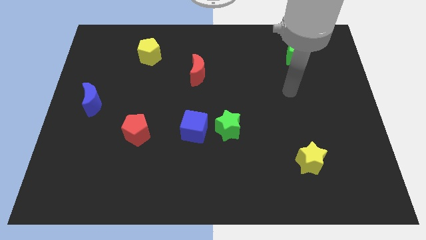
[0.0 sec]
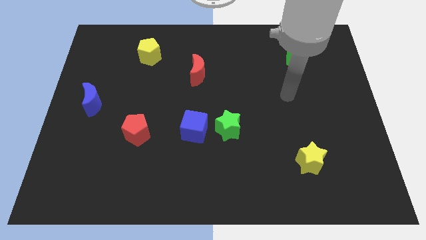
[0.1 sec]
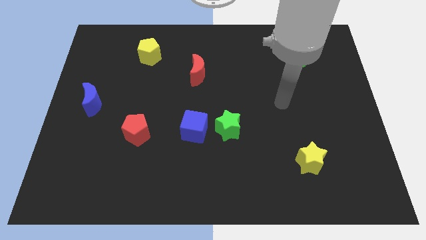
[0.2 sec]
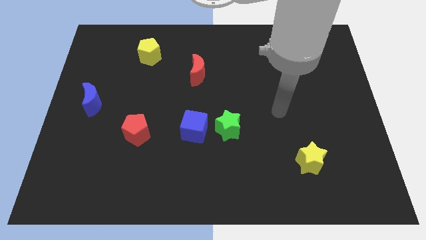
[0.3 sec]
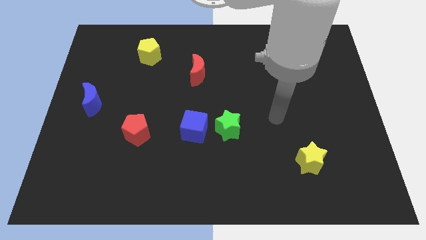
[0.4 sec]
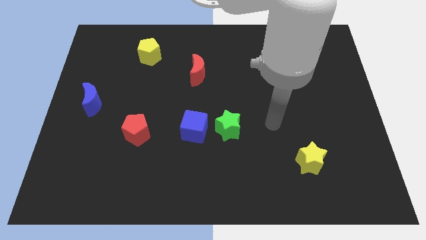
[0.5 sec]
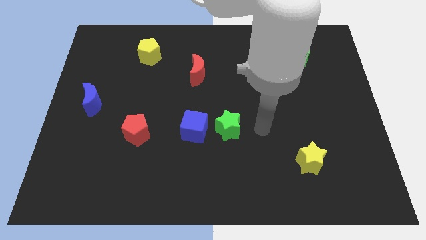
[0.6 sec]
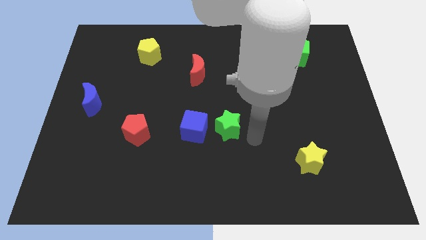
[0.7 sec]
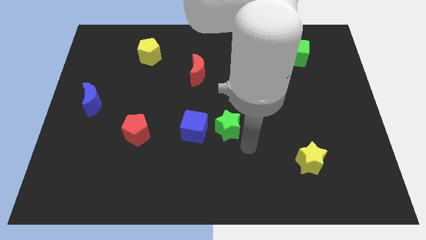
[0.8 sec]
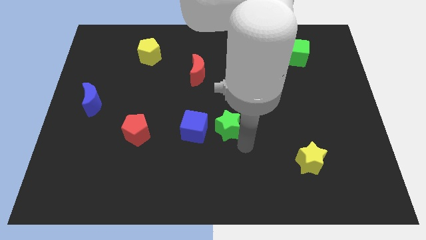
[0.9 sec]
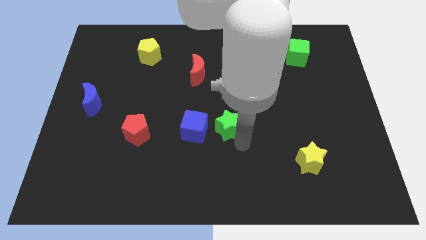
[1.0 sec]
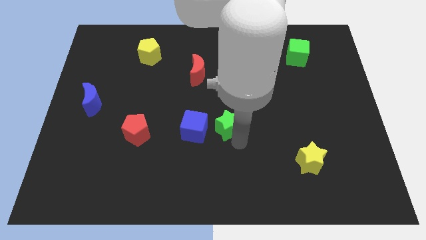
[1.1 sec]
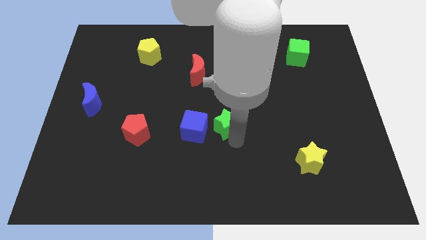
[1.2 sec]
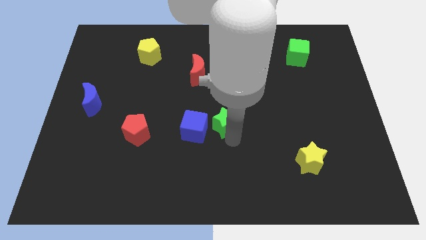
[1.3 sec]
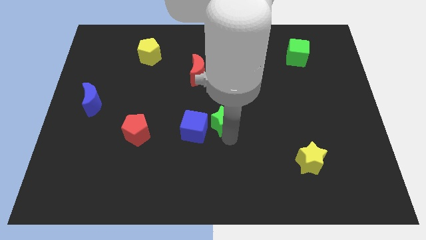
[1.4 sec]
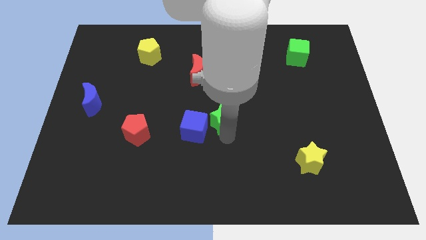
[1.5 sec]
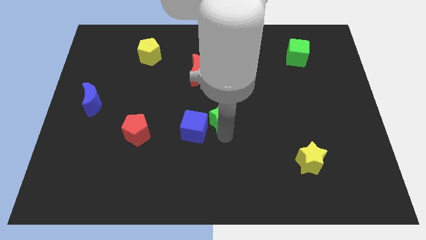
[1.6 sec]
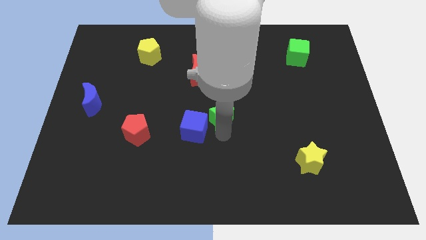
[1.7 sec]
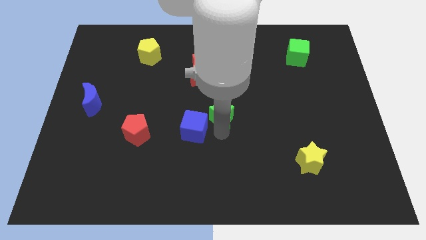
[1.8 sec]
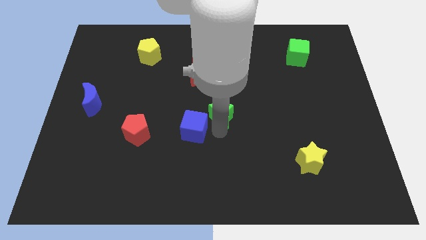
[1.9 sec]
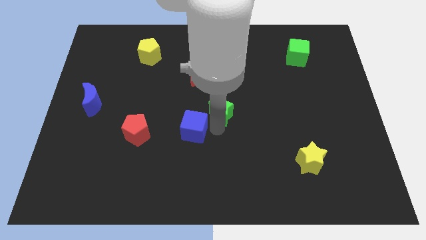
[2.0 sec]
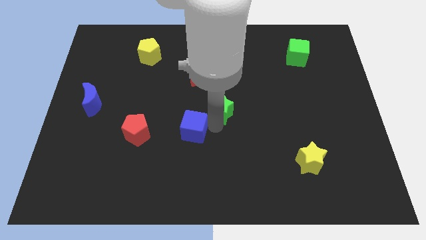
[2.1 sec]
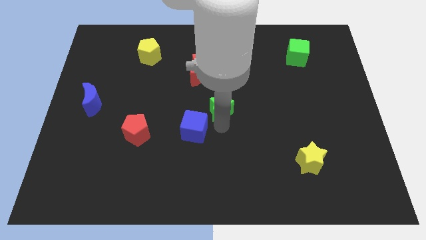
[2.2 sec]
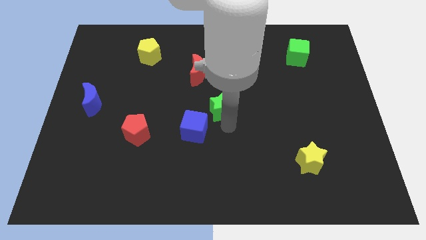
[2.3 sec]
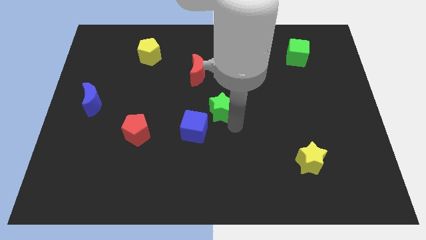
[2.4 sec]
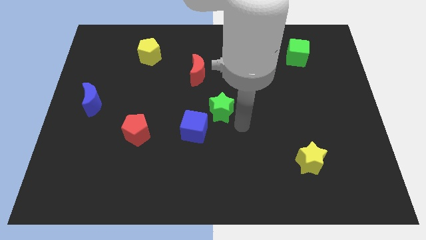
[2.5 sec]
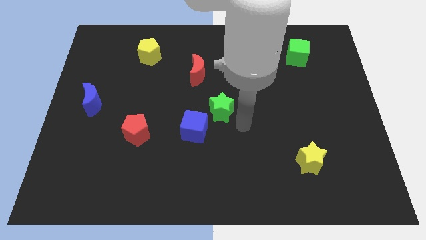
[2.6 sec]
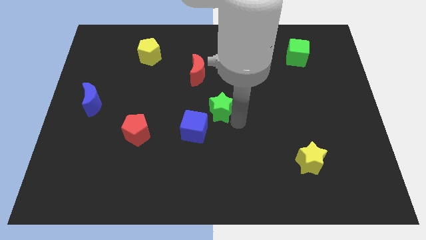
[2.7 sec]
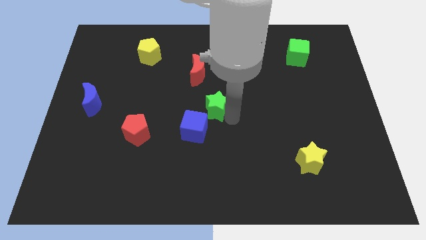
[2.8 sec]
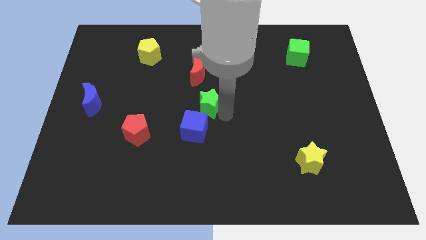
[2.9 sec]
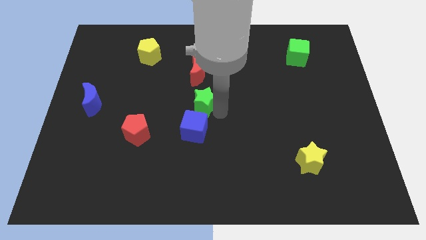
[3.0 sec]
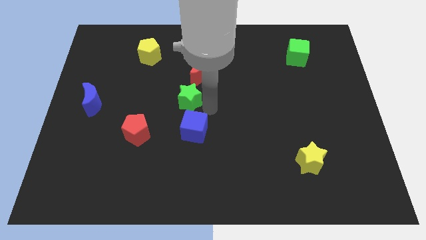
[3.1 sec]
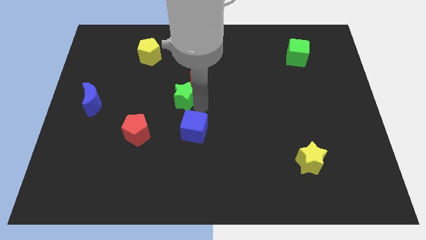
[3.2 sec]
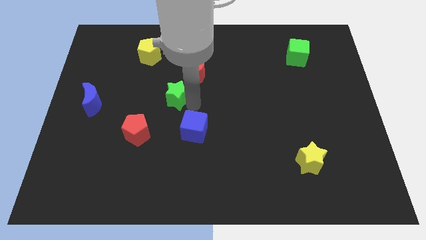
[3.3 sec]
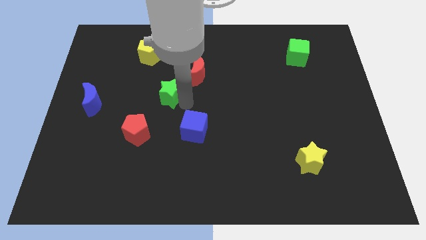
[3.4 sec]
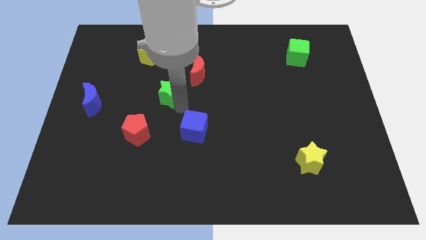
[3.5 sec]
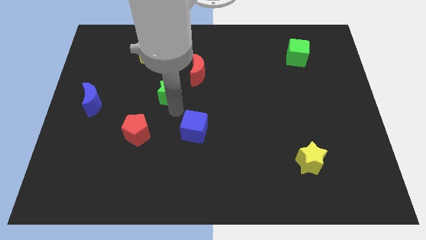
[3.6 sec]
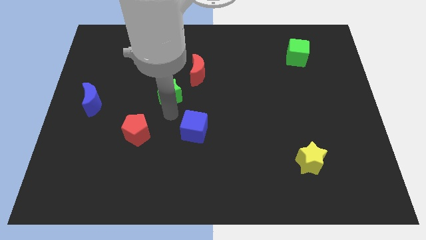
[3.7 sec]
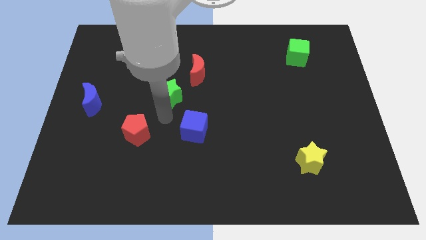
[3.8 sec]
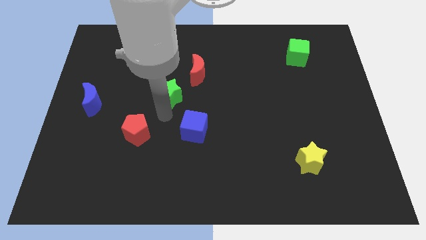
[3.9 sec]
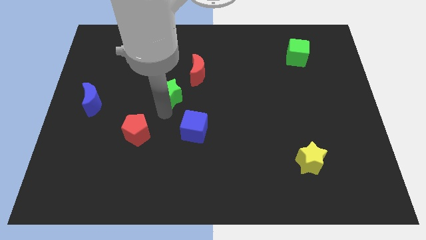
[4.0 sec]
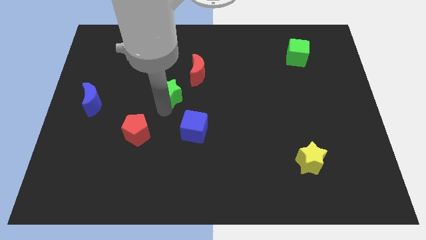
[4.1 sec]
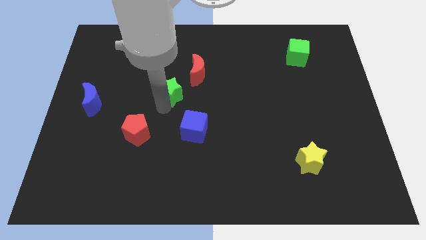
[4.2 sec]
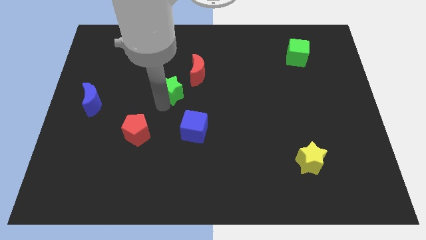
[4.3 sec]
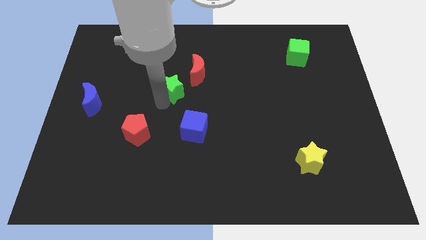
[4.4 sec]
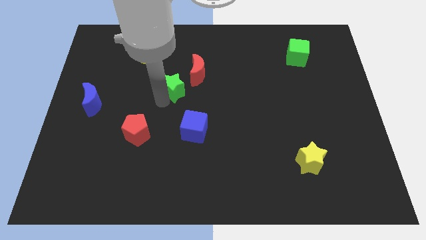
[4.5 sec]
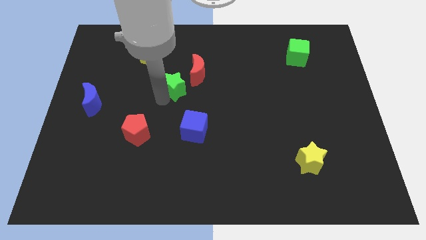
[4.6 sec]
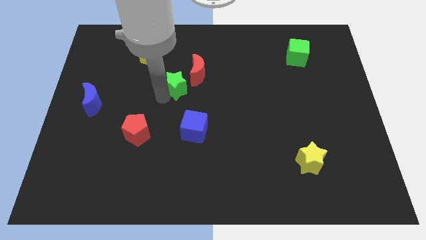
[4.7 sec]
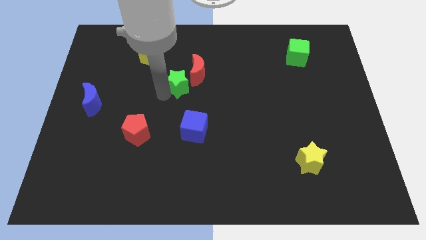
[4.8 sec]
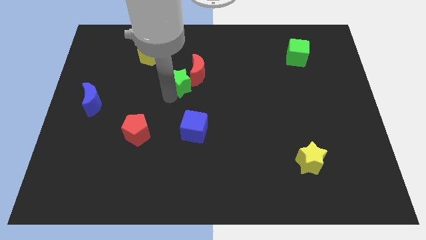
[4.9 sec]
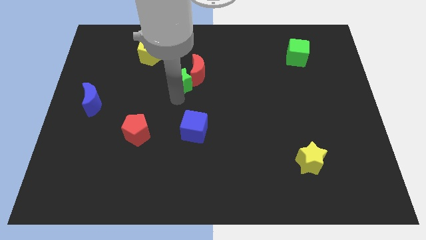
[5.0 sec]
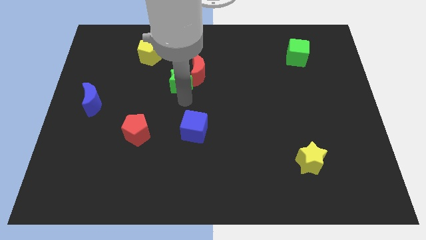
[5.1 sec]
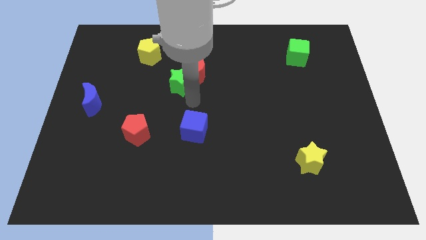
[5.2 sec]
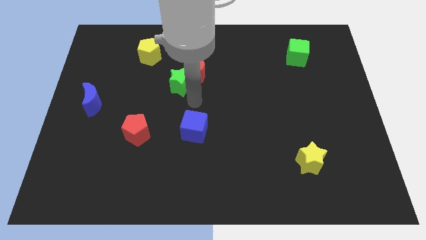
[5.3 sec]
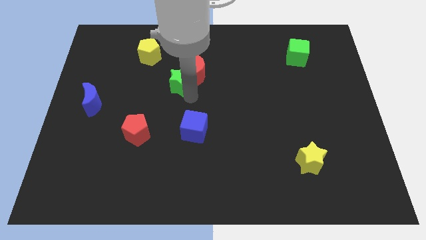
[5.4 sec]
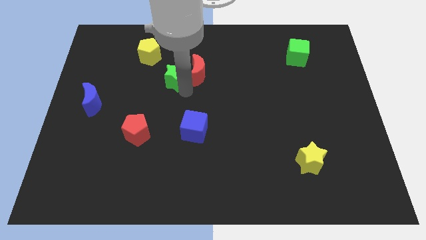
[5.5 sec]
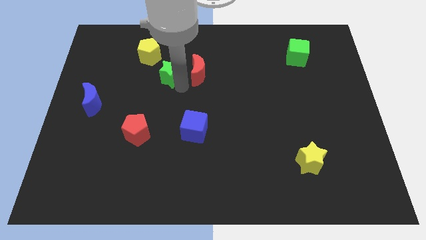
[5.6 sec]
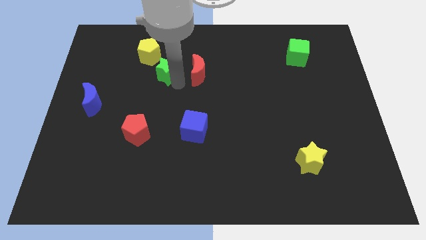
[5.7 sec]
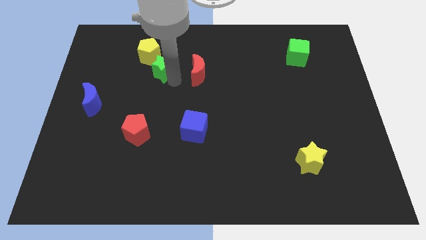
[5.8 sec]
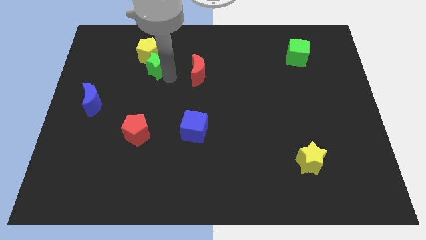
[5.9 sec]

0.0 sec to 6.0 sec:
move the green star towards the yellow pentagon

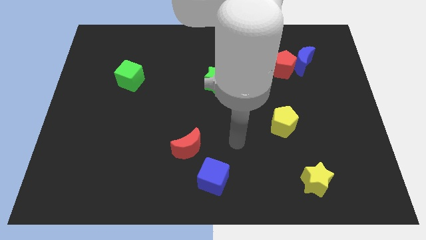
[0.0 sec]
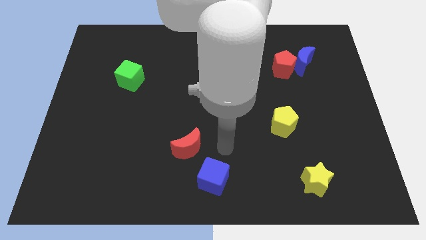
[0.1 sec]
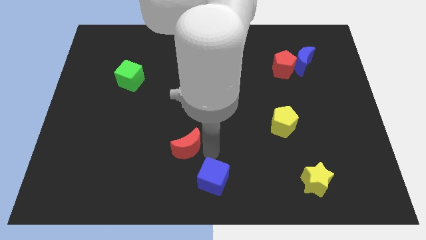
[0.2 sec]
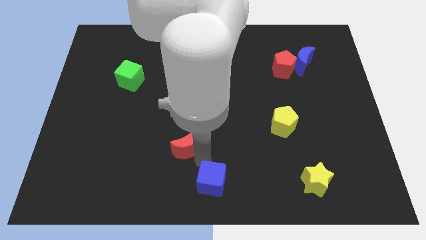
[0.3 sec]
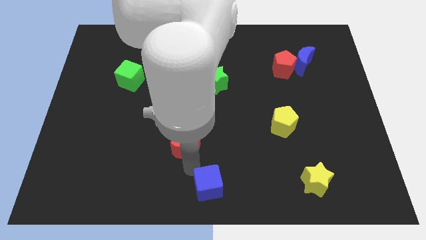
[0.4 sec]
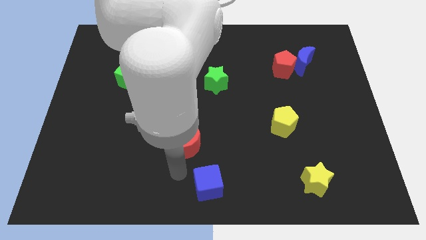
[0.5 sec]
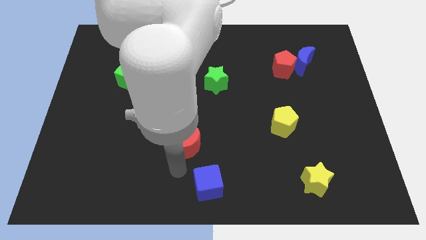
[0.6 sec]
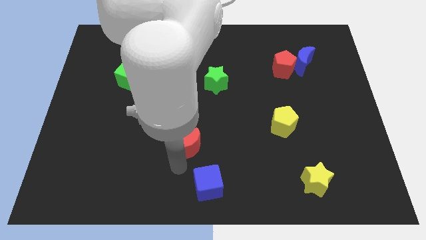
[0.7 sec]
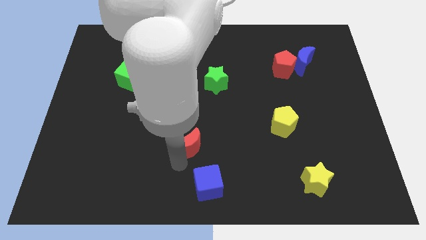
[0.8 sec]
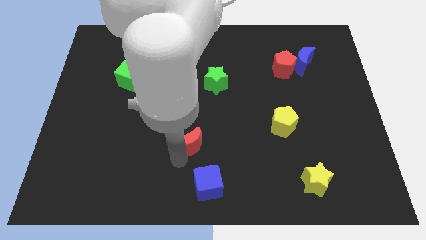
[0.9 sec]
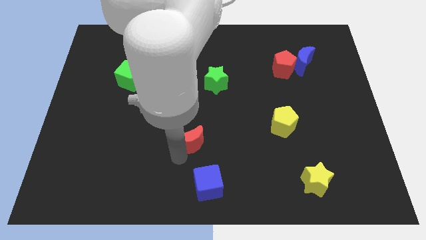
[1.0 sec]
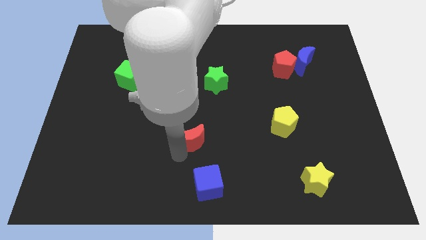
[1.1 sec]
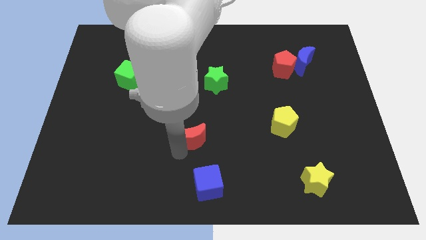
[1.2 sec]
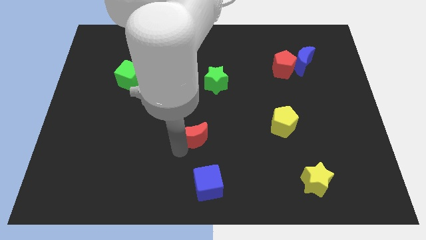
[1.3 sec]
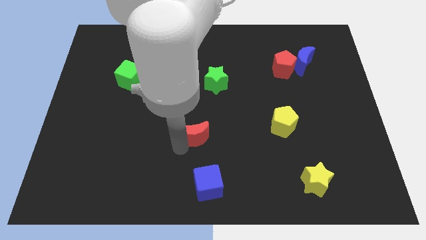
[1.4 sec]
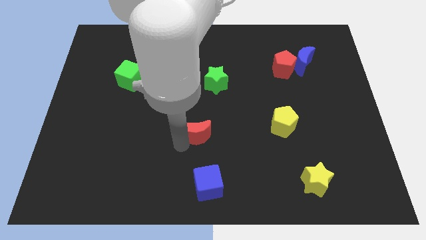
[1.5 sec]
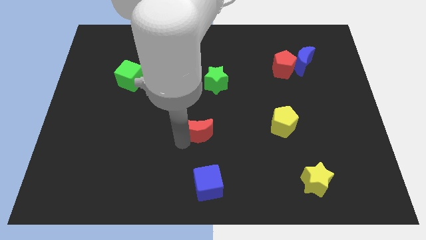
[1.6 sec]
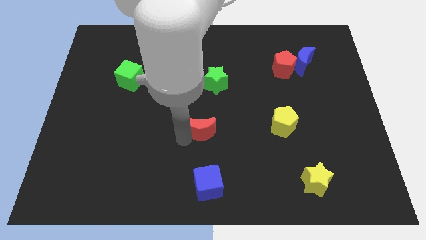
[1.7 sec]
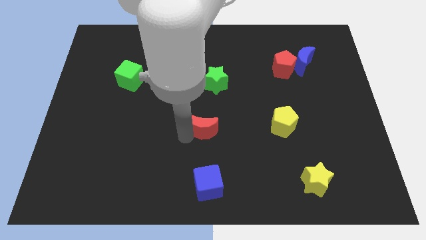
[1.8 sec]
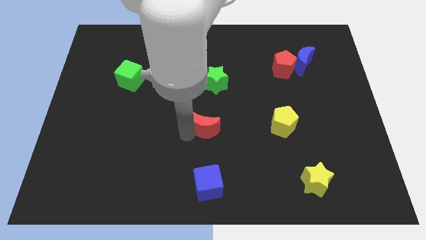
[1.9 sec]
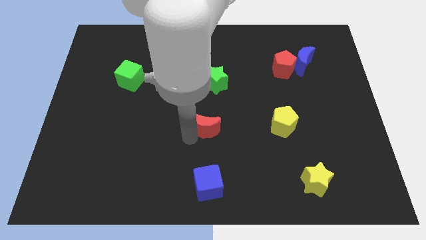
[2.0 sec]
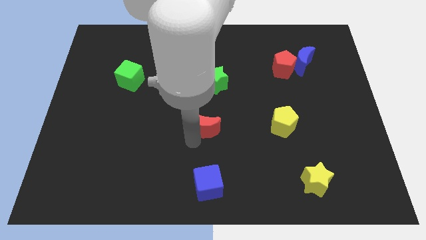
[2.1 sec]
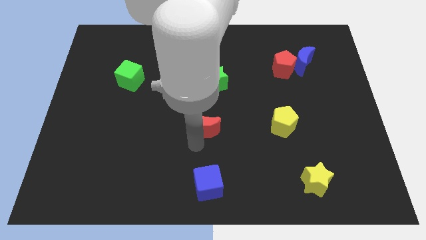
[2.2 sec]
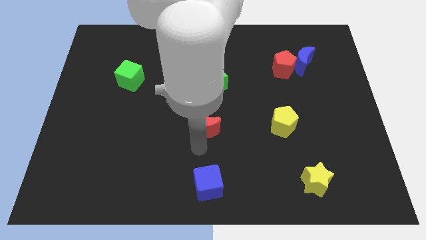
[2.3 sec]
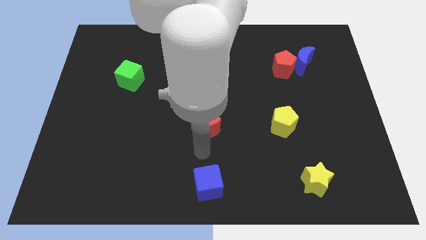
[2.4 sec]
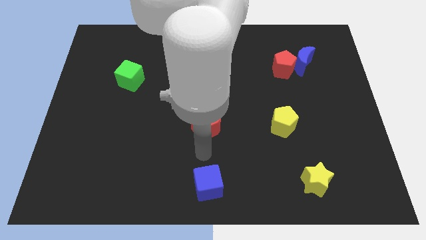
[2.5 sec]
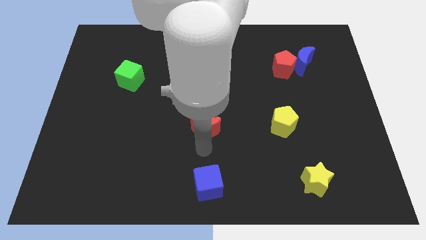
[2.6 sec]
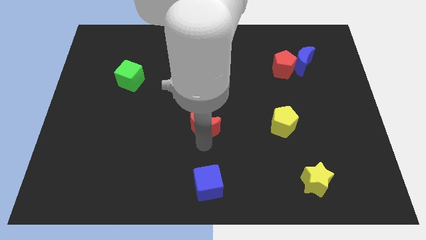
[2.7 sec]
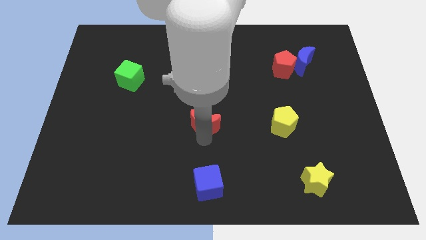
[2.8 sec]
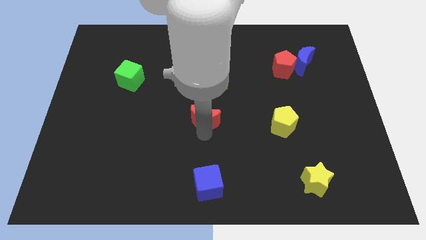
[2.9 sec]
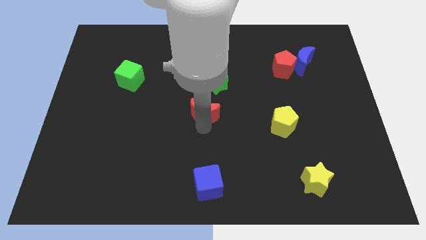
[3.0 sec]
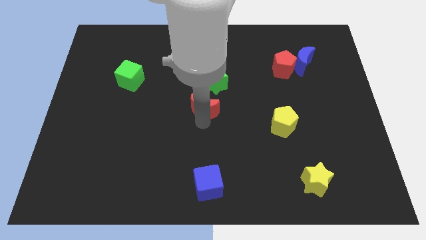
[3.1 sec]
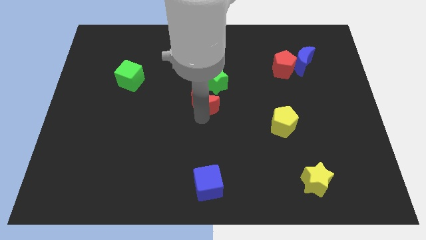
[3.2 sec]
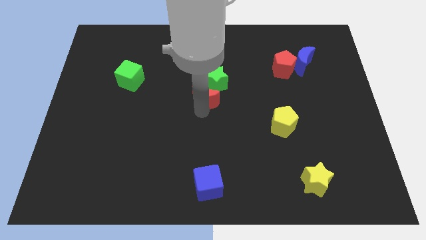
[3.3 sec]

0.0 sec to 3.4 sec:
slide the red moon close to the green star
